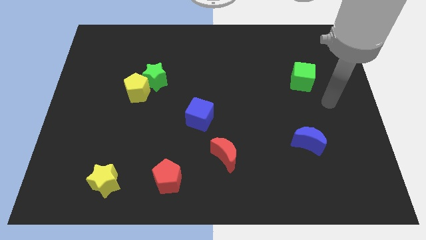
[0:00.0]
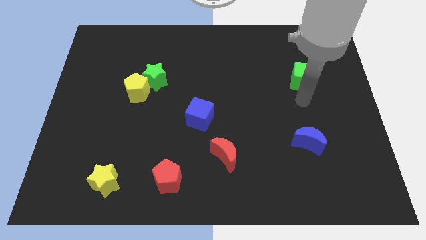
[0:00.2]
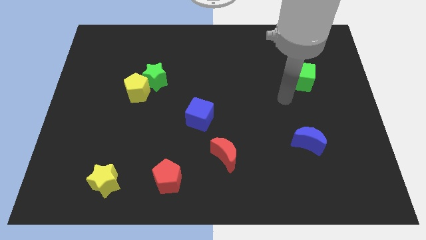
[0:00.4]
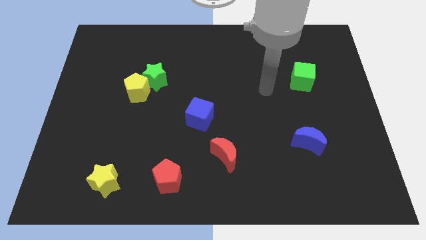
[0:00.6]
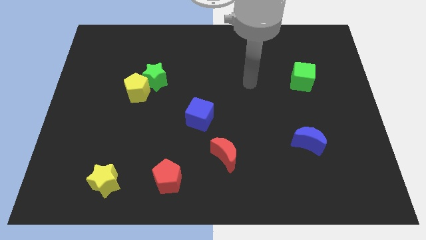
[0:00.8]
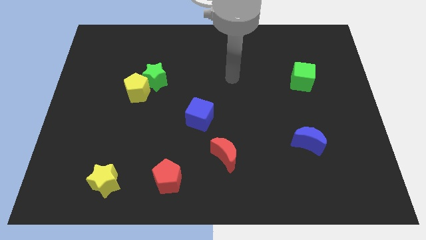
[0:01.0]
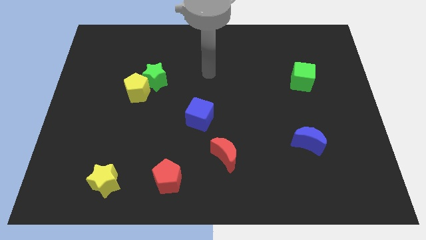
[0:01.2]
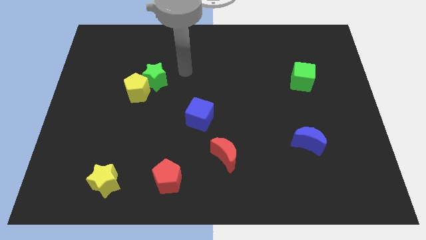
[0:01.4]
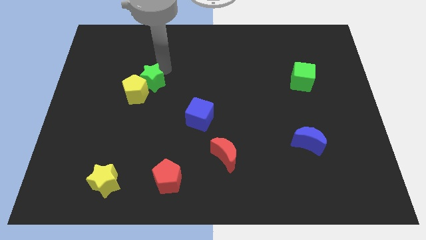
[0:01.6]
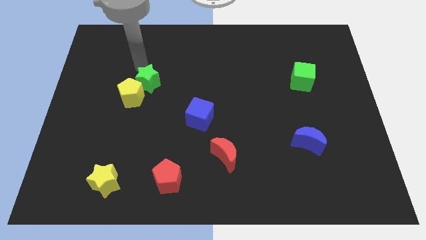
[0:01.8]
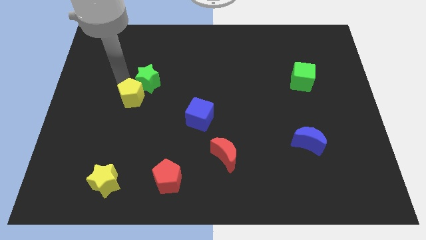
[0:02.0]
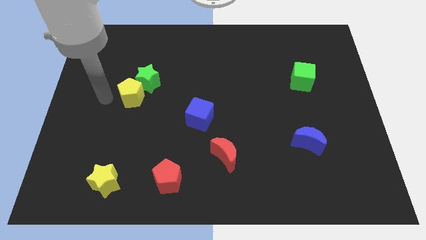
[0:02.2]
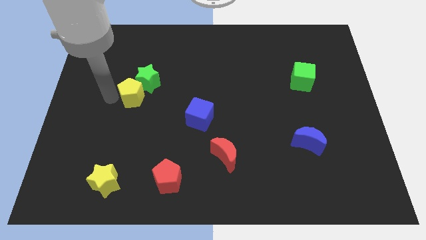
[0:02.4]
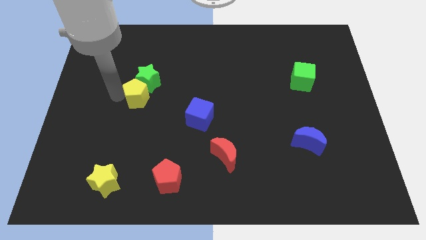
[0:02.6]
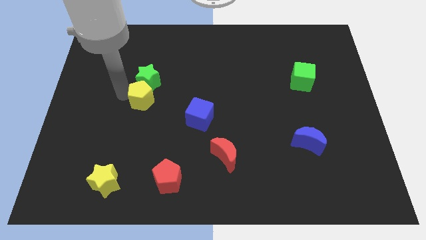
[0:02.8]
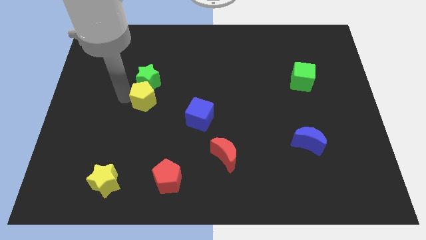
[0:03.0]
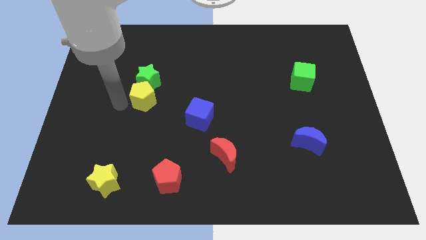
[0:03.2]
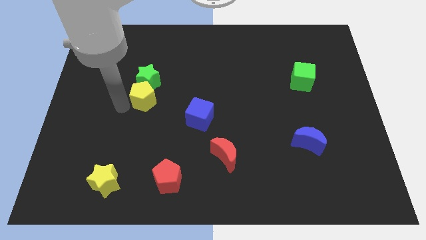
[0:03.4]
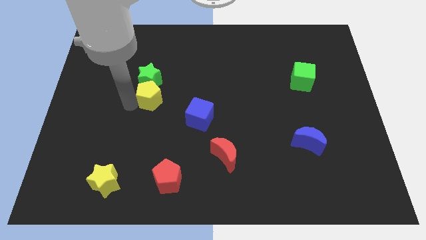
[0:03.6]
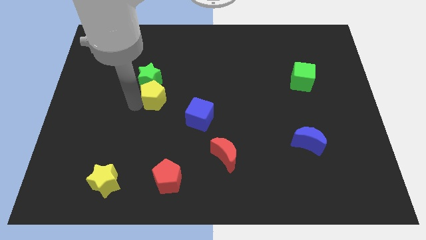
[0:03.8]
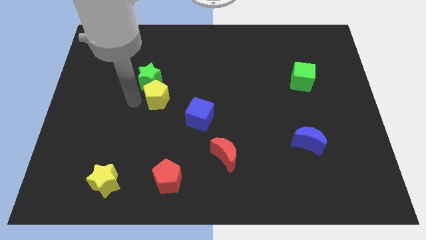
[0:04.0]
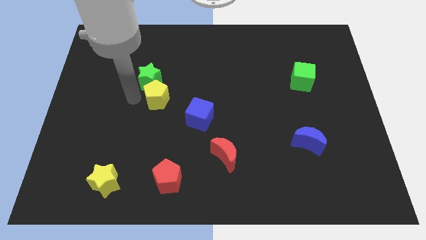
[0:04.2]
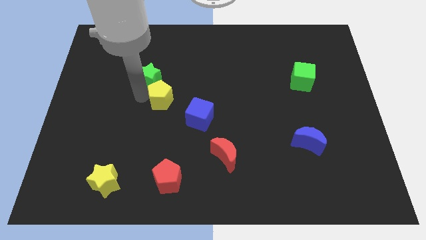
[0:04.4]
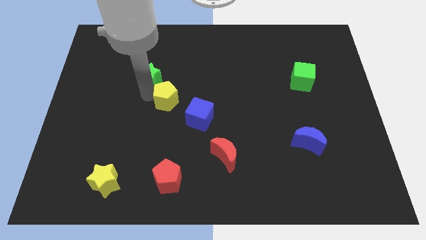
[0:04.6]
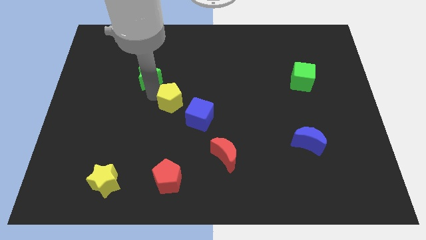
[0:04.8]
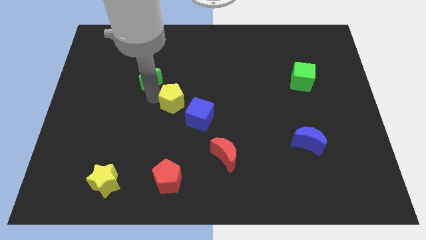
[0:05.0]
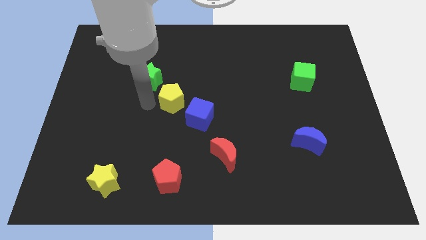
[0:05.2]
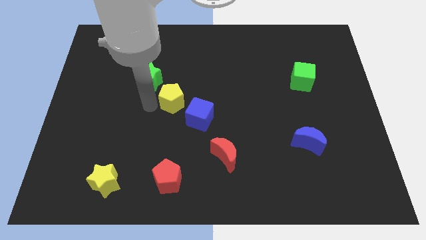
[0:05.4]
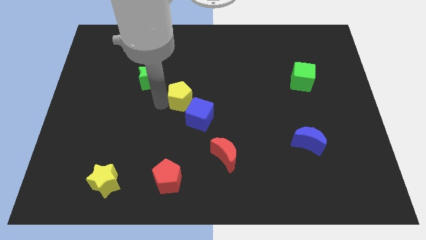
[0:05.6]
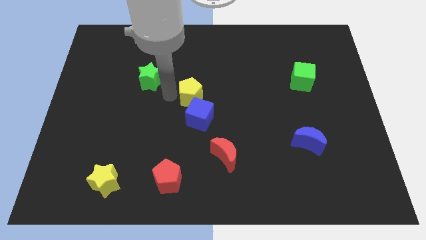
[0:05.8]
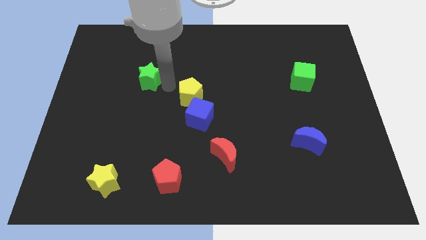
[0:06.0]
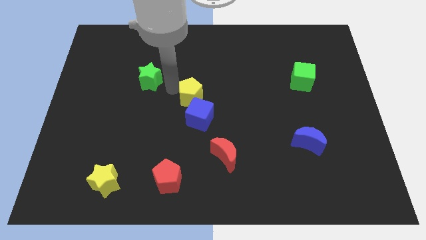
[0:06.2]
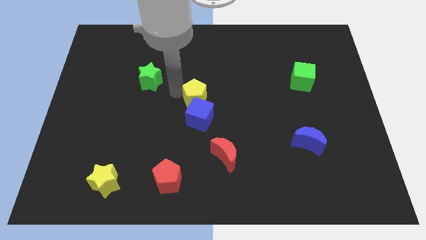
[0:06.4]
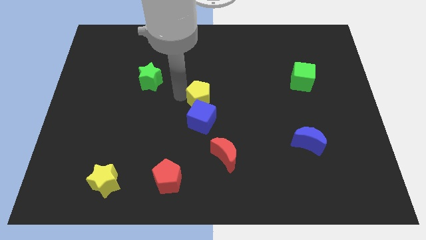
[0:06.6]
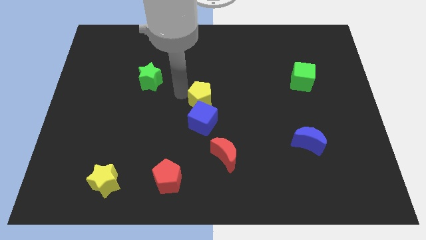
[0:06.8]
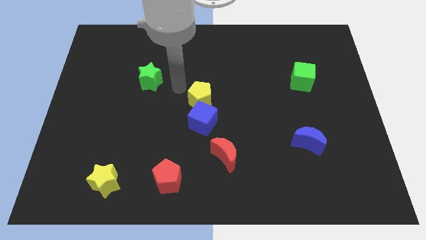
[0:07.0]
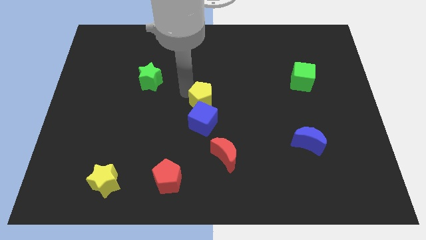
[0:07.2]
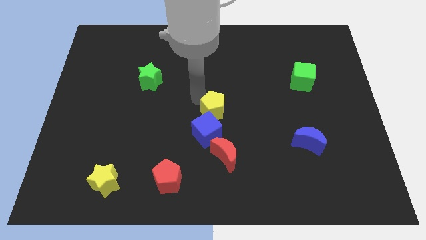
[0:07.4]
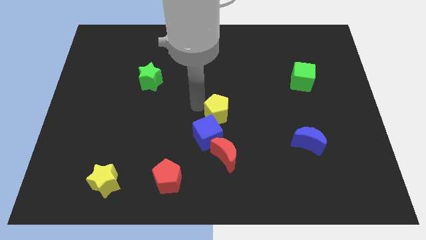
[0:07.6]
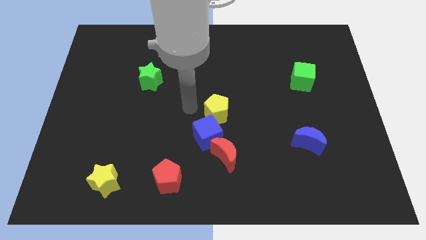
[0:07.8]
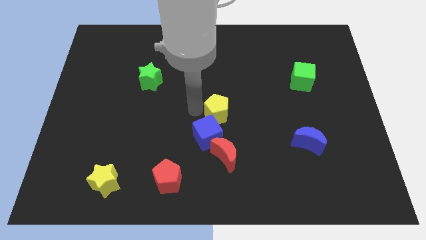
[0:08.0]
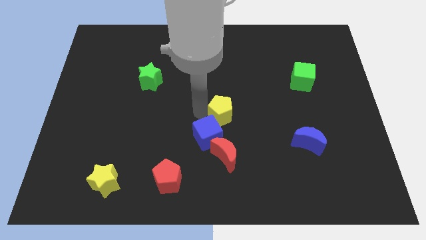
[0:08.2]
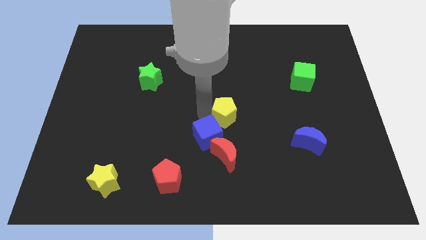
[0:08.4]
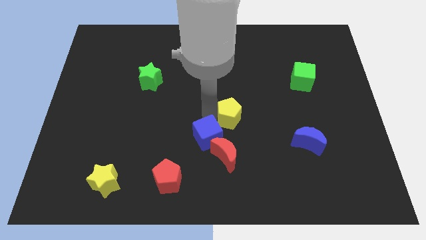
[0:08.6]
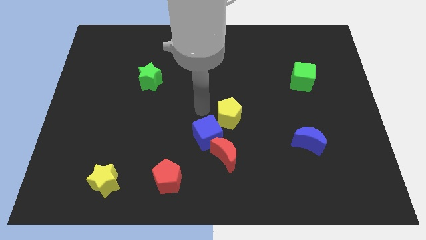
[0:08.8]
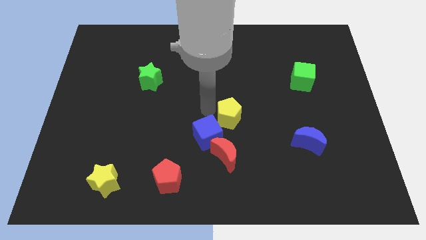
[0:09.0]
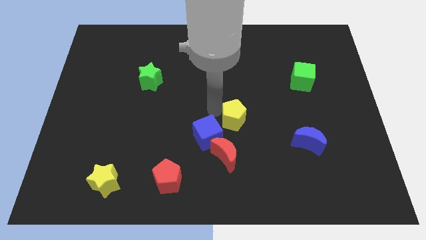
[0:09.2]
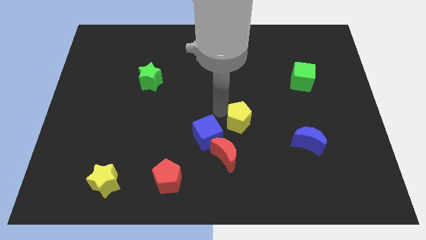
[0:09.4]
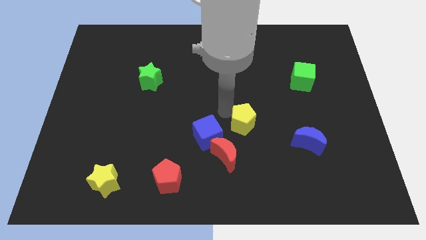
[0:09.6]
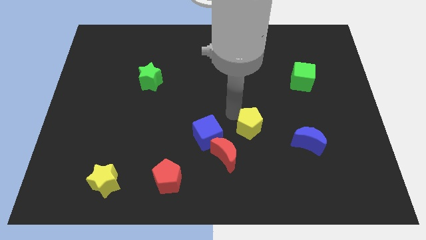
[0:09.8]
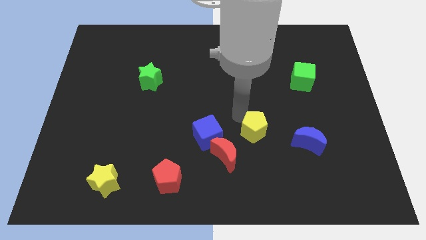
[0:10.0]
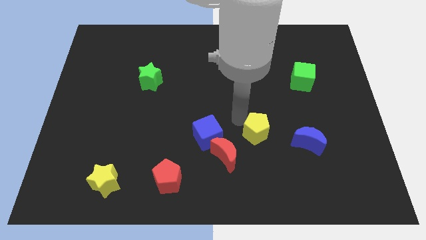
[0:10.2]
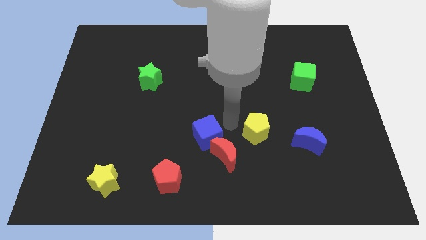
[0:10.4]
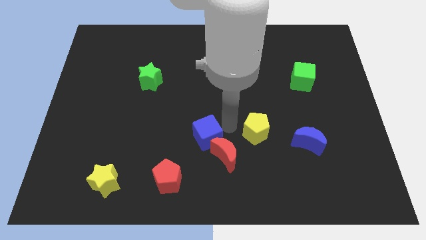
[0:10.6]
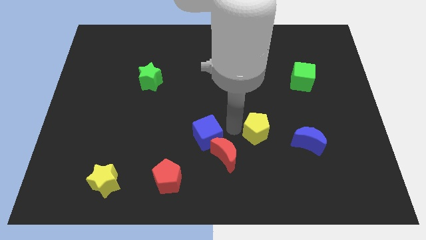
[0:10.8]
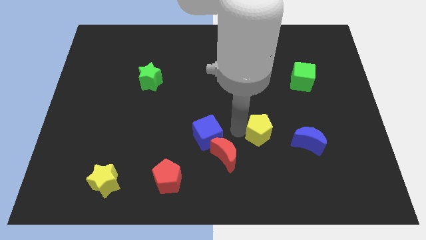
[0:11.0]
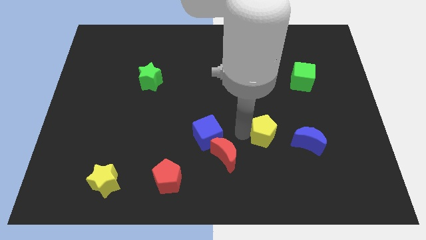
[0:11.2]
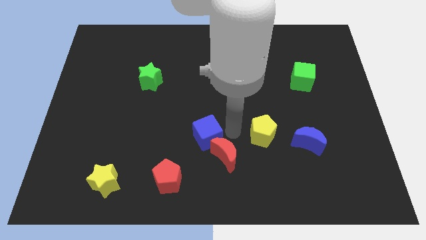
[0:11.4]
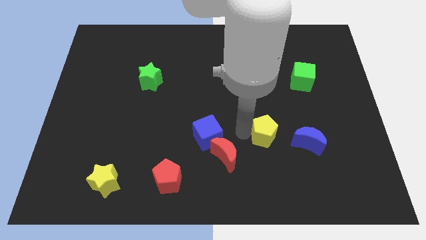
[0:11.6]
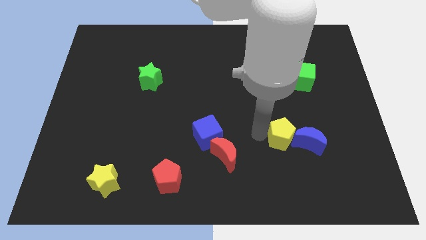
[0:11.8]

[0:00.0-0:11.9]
move the yellow pentagon next to the blue moon

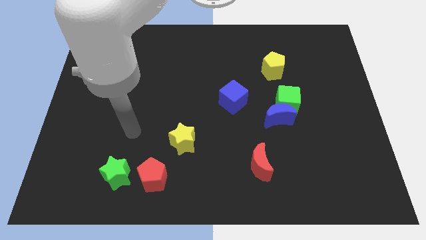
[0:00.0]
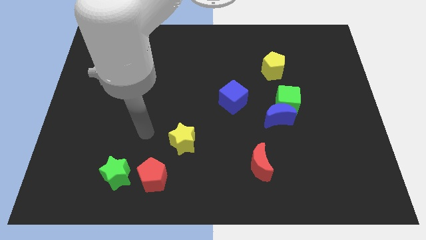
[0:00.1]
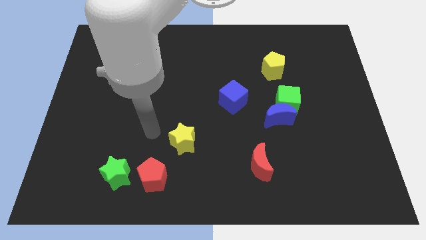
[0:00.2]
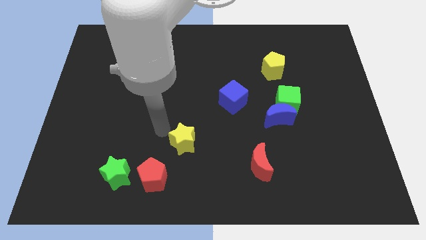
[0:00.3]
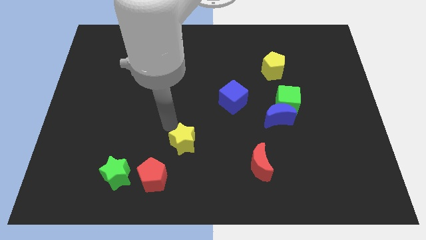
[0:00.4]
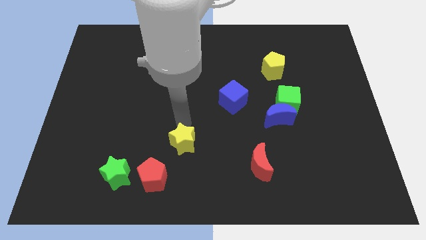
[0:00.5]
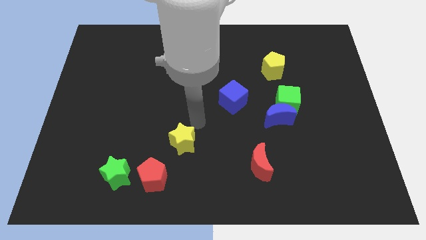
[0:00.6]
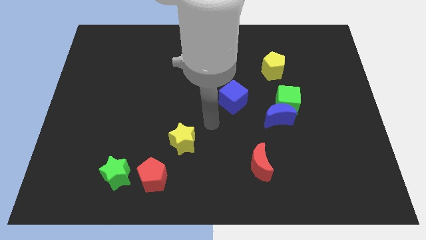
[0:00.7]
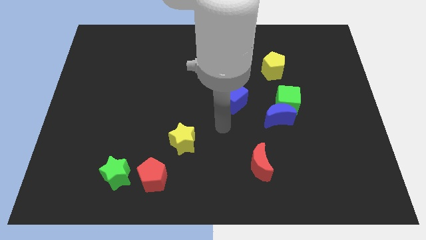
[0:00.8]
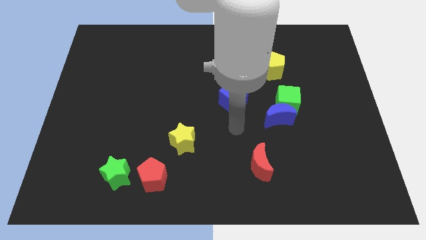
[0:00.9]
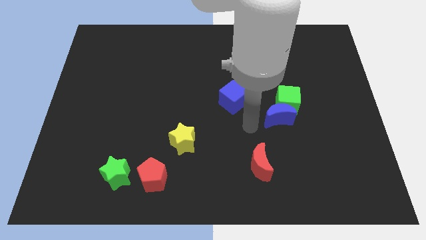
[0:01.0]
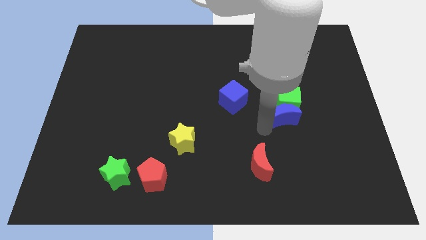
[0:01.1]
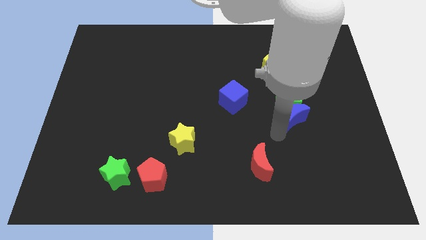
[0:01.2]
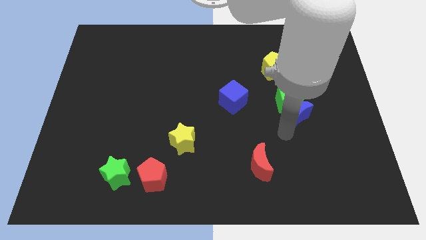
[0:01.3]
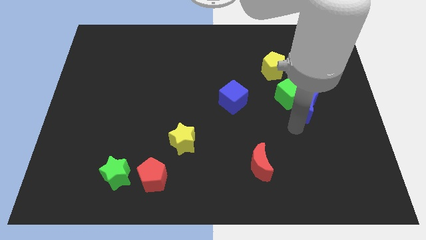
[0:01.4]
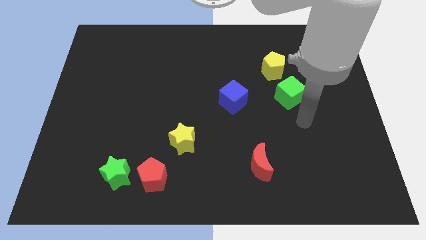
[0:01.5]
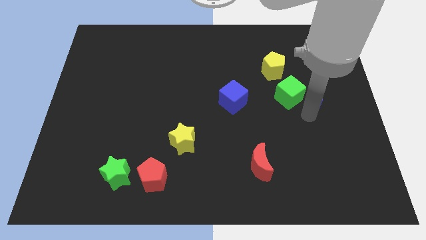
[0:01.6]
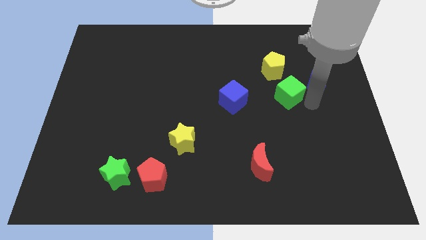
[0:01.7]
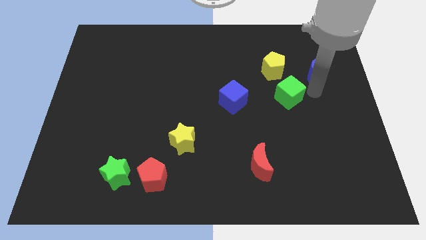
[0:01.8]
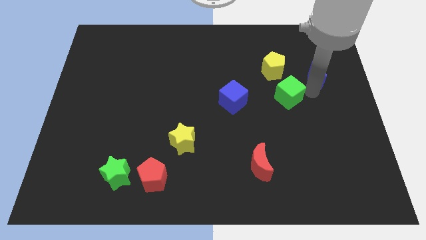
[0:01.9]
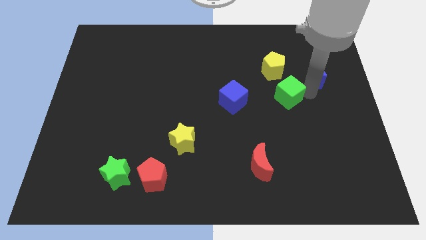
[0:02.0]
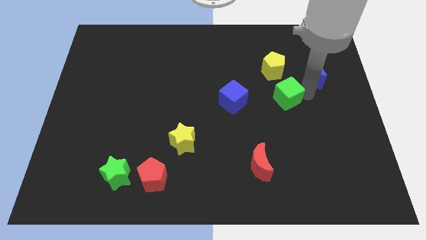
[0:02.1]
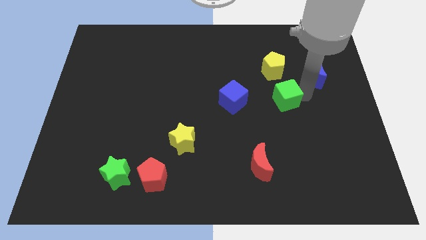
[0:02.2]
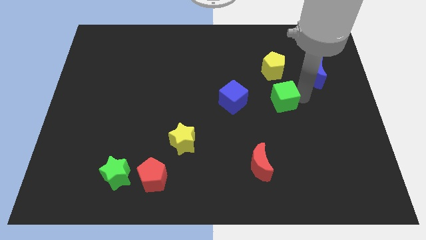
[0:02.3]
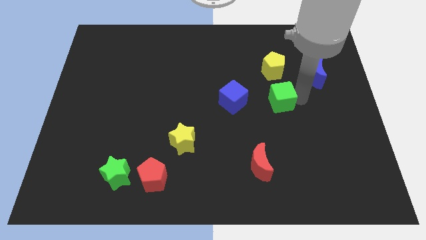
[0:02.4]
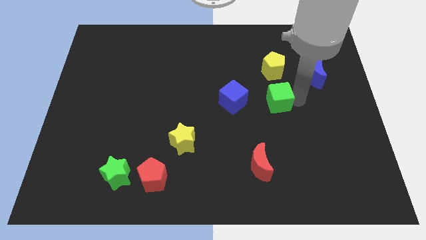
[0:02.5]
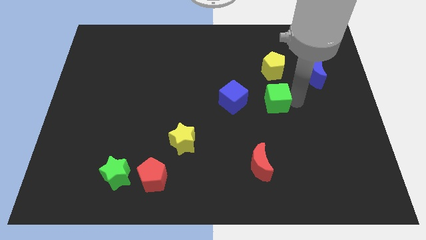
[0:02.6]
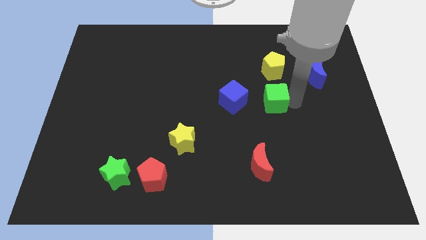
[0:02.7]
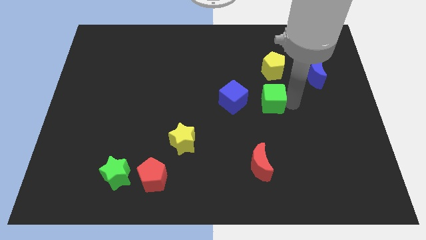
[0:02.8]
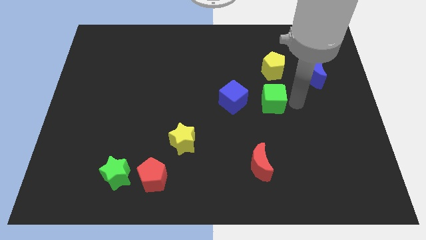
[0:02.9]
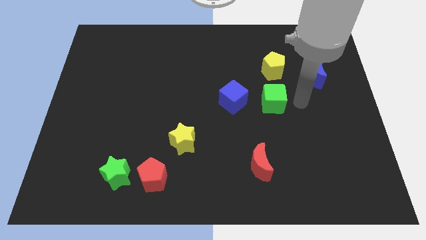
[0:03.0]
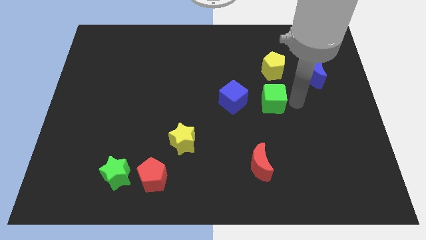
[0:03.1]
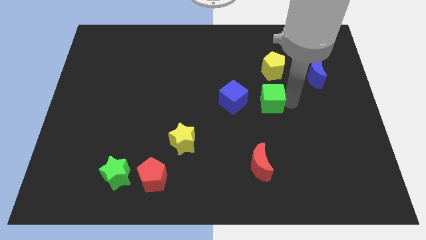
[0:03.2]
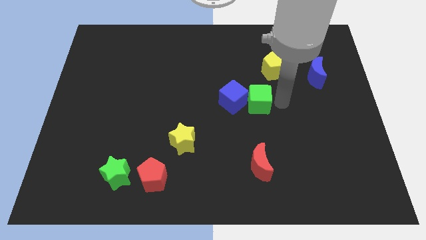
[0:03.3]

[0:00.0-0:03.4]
put the green cube next to the blue cube
